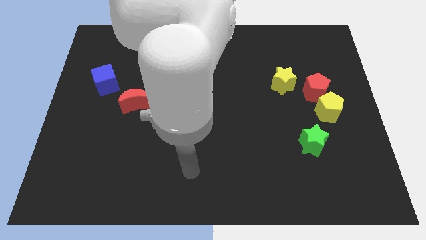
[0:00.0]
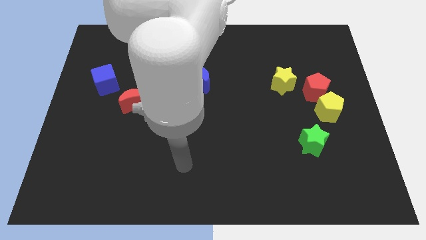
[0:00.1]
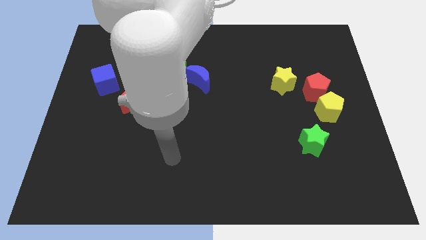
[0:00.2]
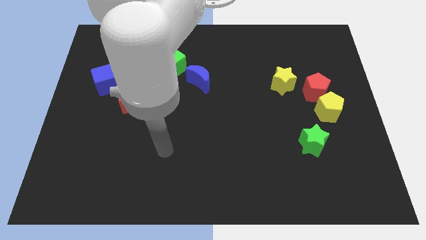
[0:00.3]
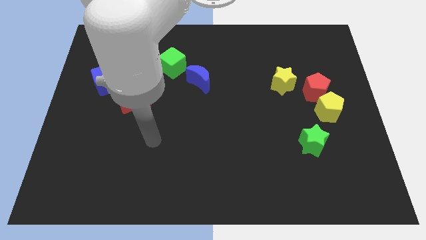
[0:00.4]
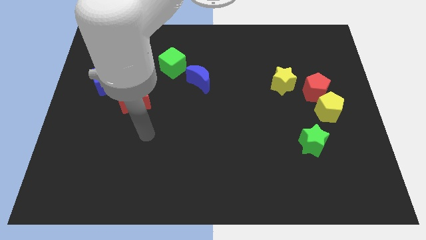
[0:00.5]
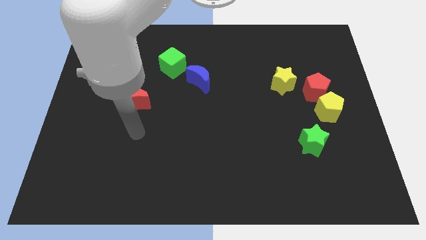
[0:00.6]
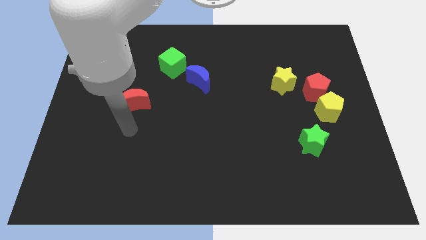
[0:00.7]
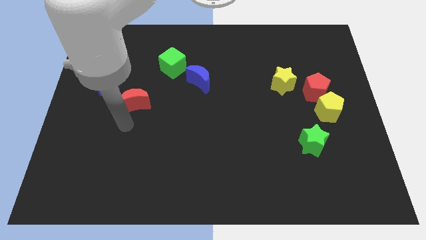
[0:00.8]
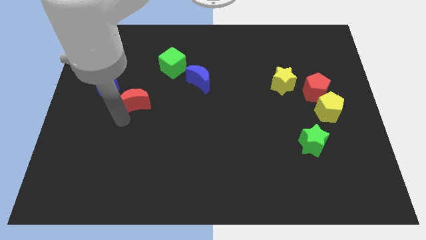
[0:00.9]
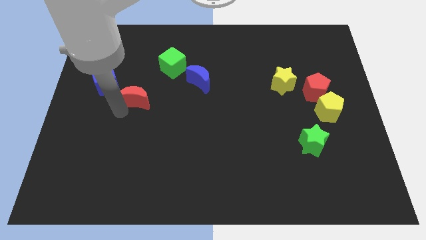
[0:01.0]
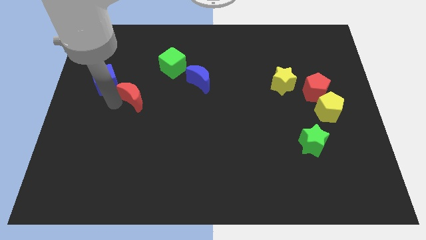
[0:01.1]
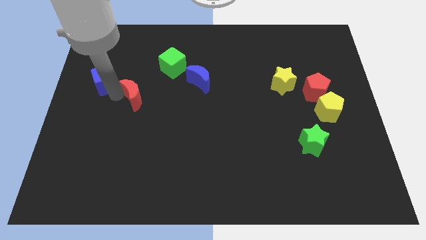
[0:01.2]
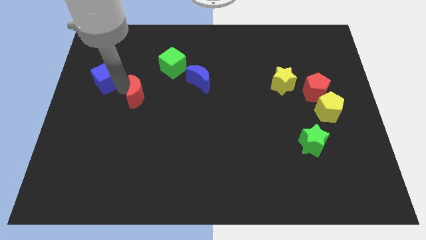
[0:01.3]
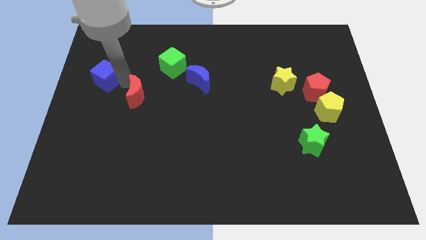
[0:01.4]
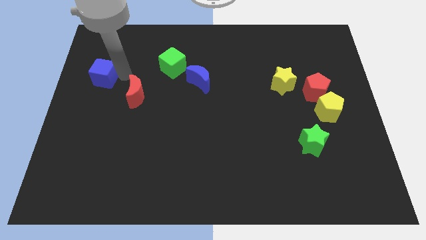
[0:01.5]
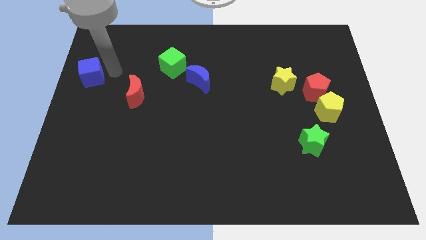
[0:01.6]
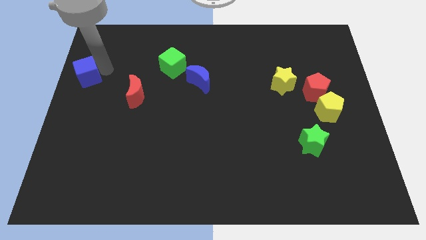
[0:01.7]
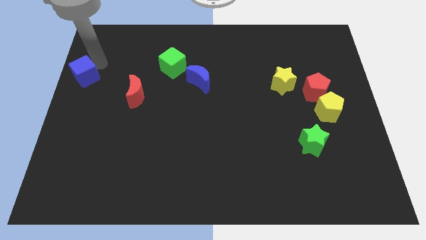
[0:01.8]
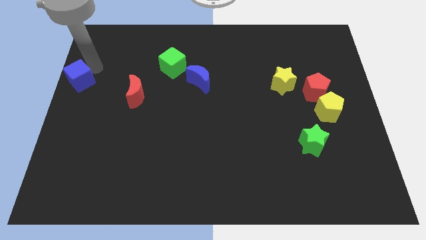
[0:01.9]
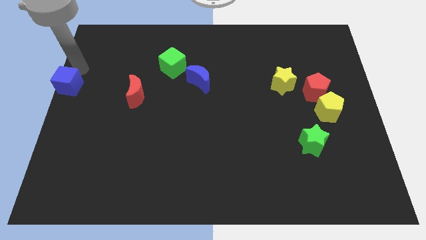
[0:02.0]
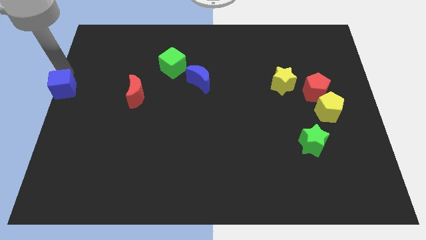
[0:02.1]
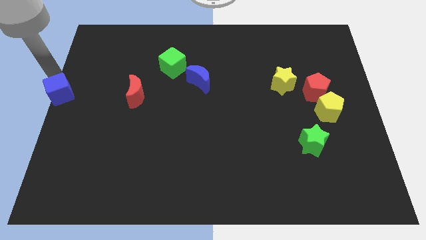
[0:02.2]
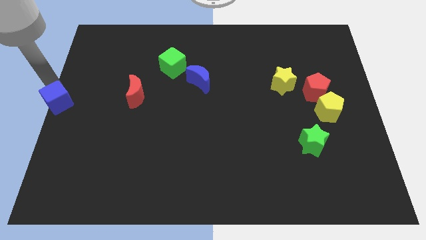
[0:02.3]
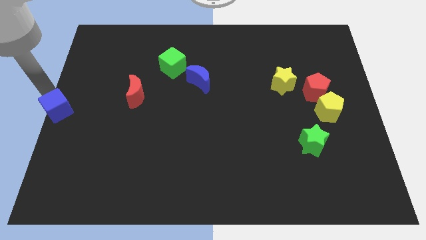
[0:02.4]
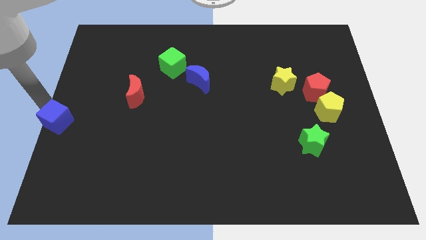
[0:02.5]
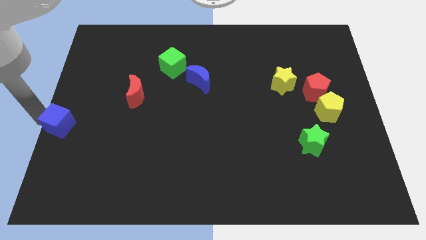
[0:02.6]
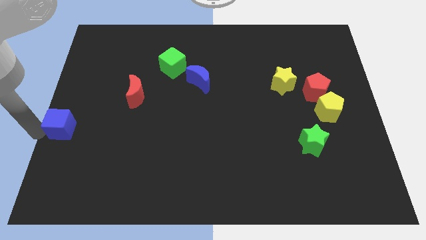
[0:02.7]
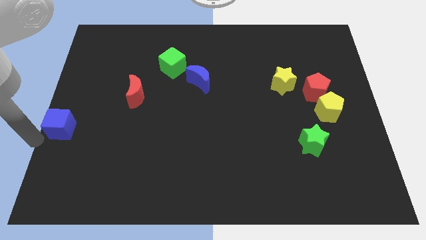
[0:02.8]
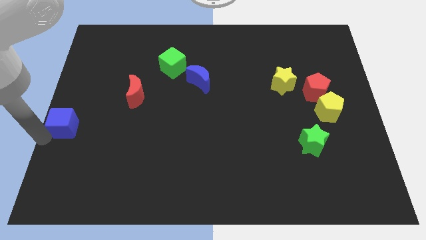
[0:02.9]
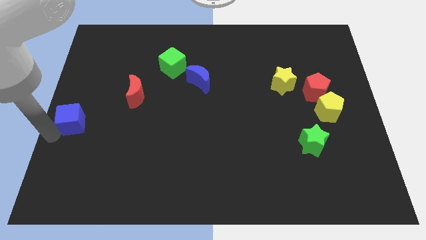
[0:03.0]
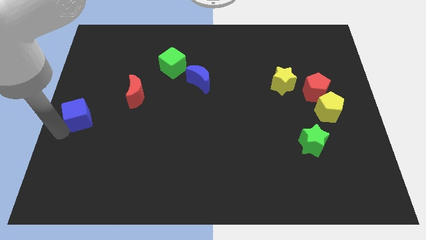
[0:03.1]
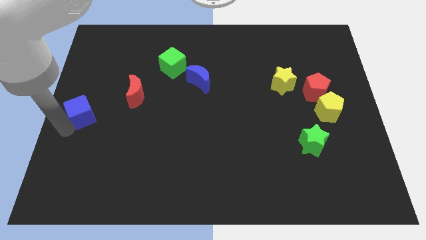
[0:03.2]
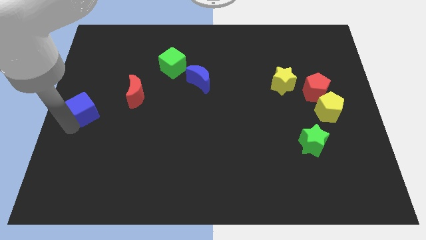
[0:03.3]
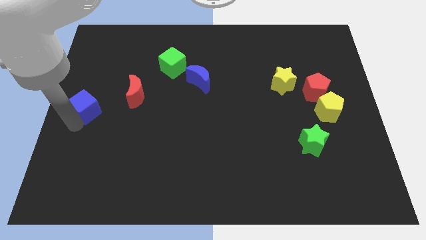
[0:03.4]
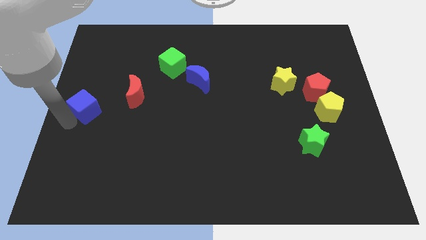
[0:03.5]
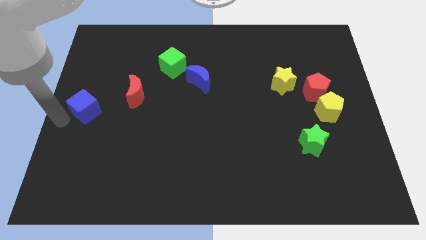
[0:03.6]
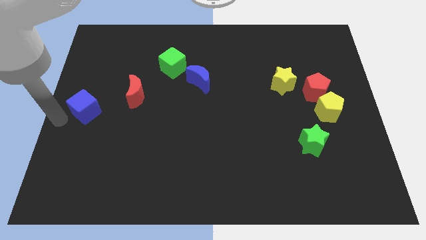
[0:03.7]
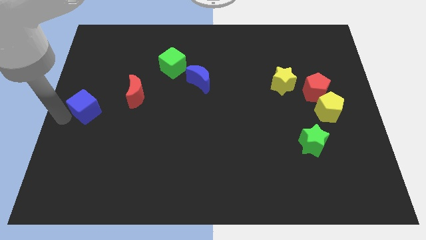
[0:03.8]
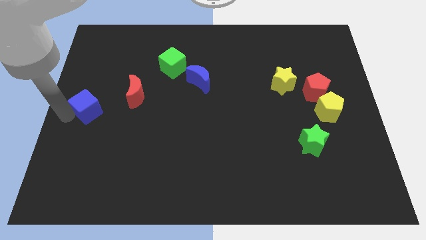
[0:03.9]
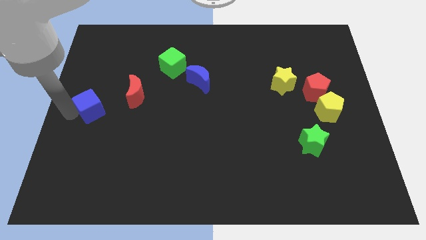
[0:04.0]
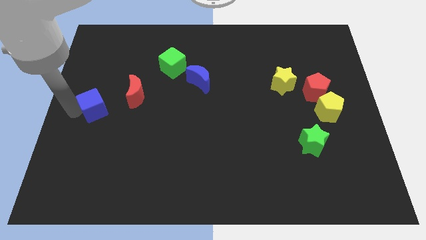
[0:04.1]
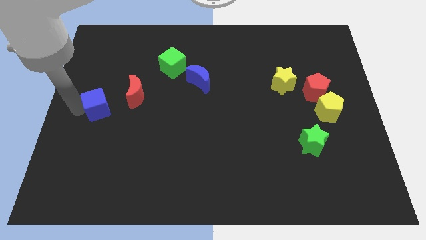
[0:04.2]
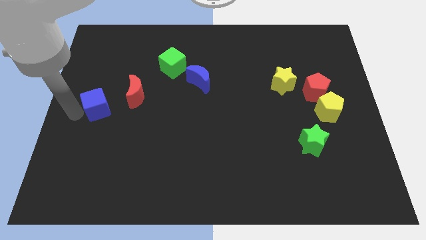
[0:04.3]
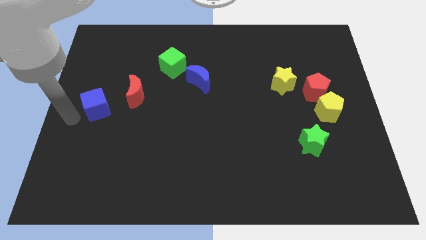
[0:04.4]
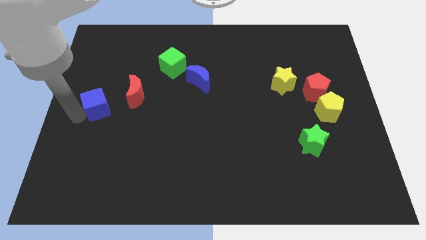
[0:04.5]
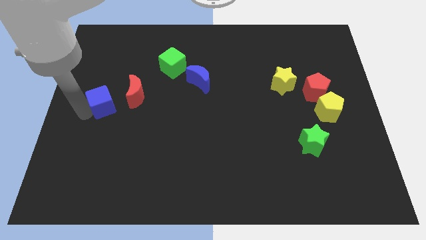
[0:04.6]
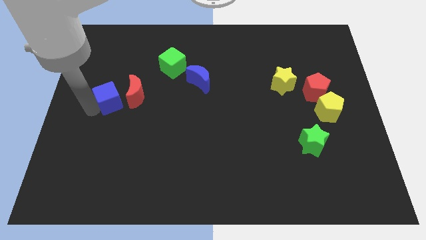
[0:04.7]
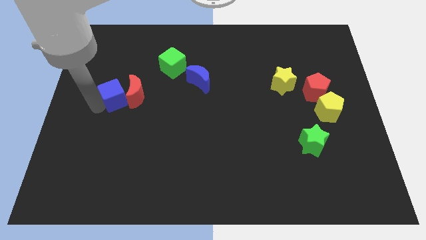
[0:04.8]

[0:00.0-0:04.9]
move the blue cube close to the red moon

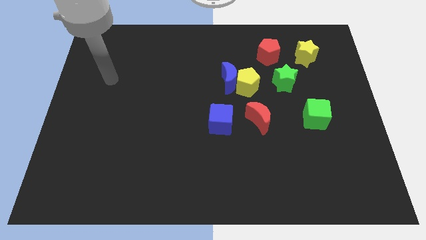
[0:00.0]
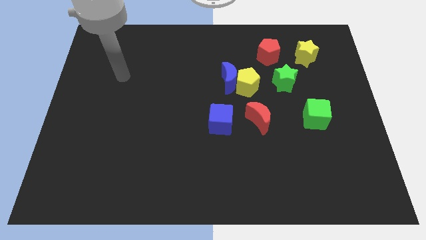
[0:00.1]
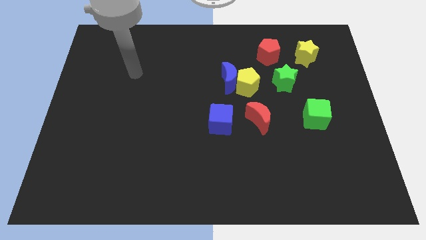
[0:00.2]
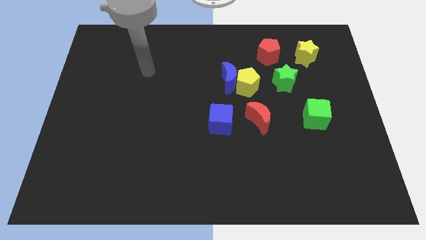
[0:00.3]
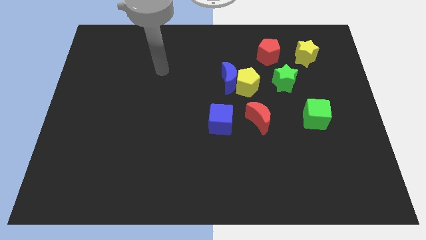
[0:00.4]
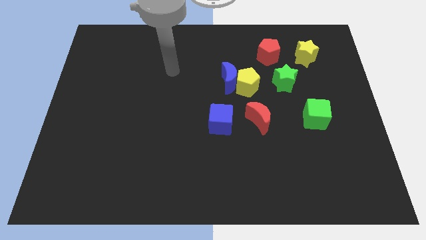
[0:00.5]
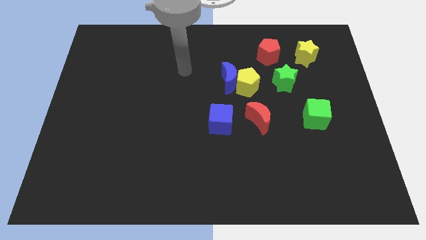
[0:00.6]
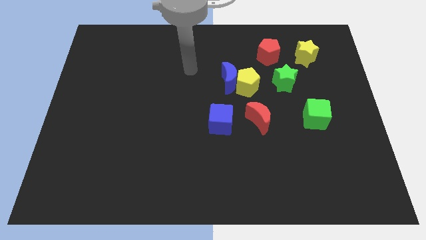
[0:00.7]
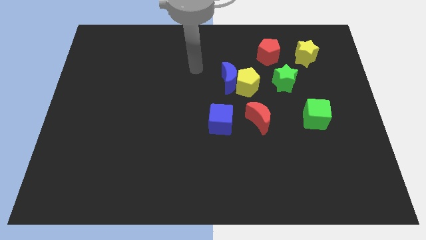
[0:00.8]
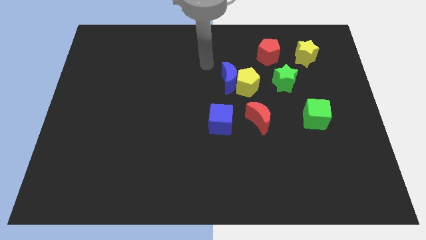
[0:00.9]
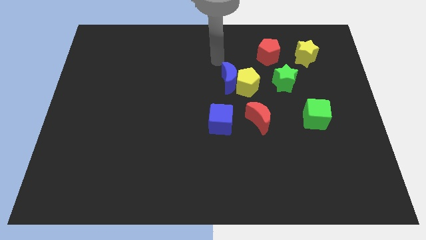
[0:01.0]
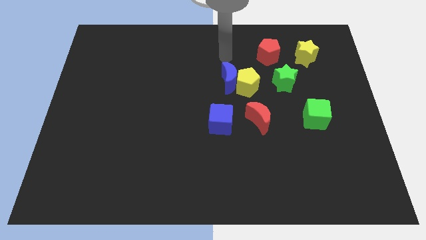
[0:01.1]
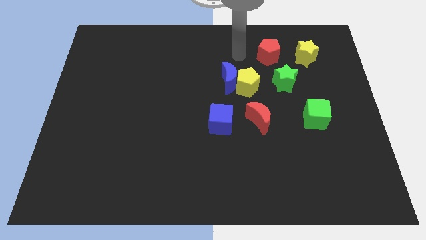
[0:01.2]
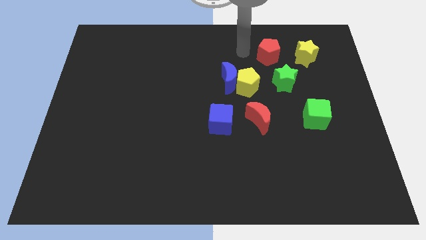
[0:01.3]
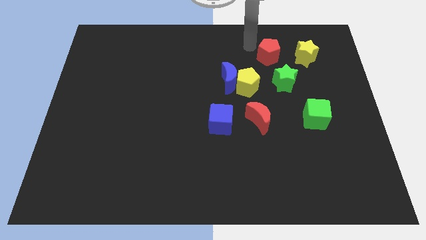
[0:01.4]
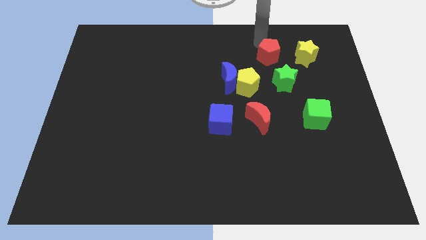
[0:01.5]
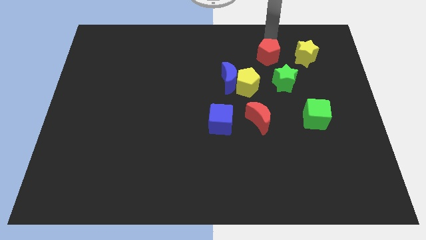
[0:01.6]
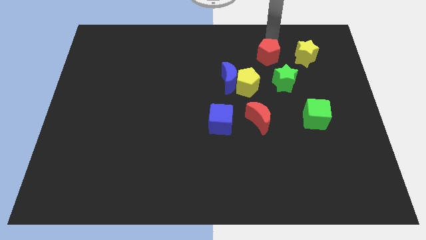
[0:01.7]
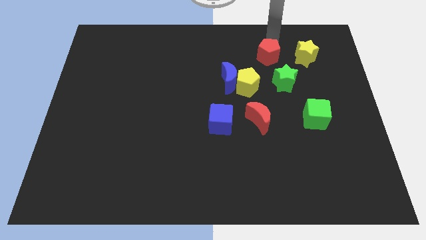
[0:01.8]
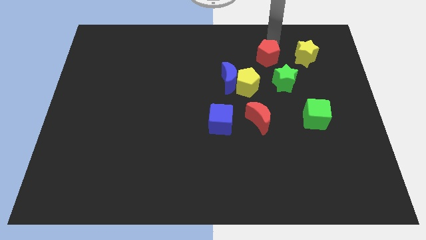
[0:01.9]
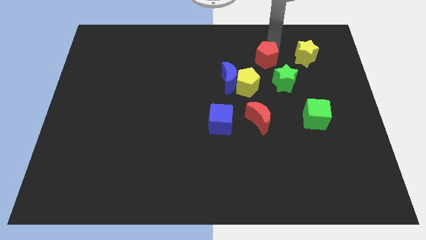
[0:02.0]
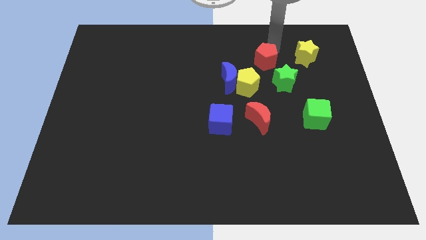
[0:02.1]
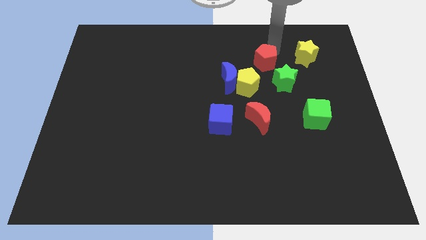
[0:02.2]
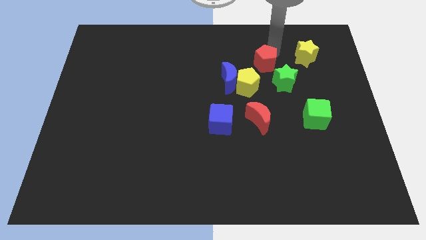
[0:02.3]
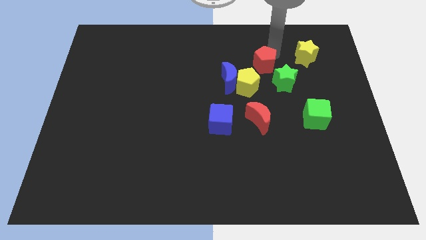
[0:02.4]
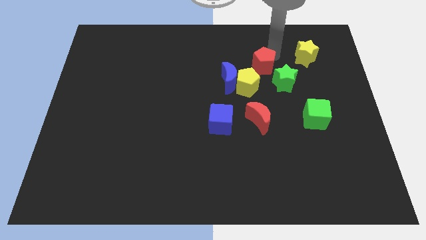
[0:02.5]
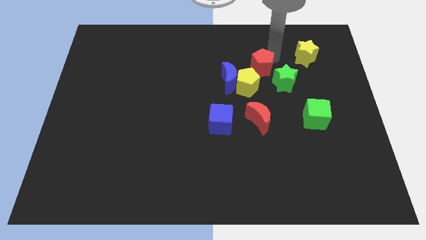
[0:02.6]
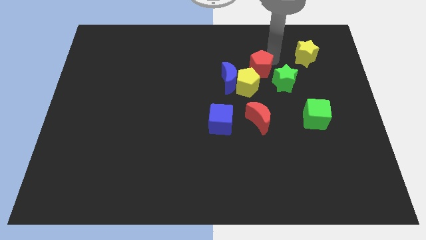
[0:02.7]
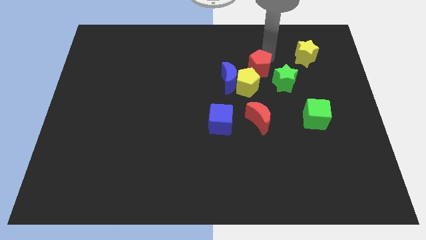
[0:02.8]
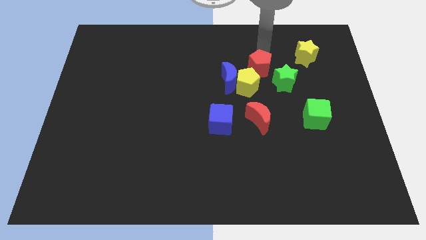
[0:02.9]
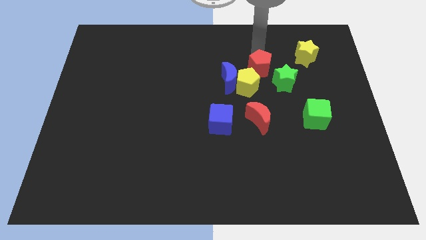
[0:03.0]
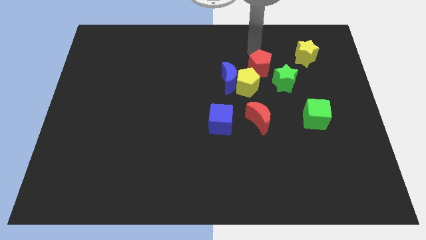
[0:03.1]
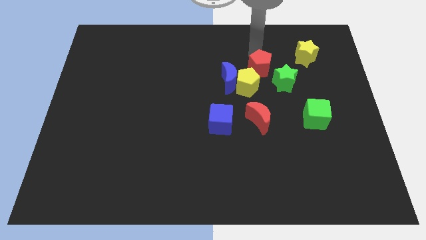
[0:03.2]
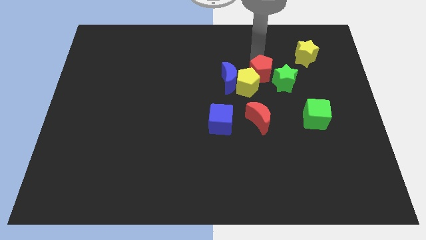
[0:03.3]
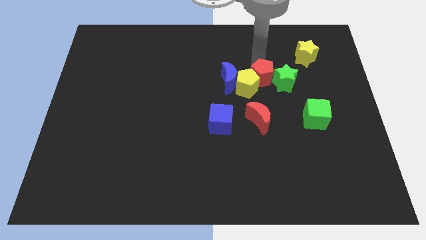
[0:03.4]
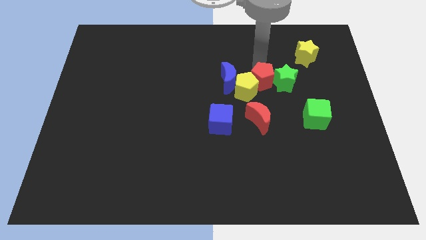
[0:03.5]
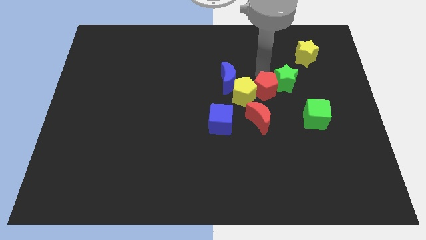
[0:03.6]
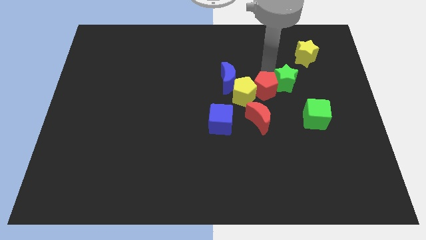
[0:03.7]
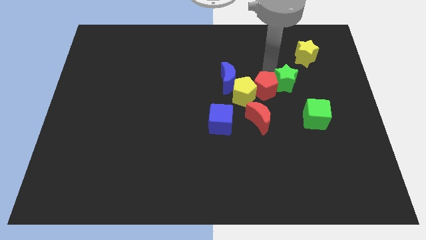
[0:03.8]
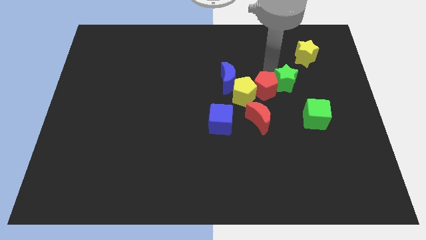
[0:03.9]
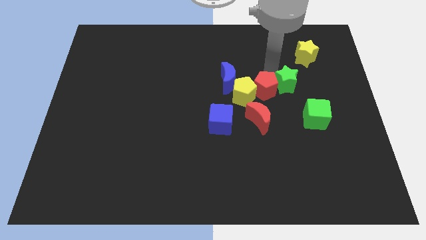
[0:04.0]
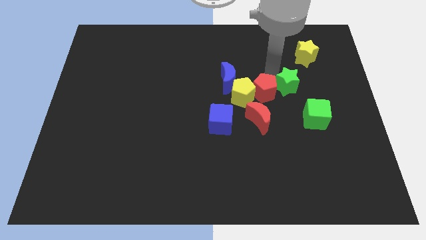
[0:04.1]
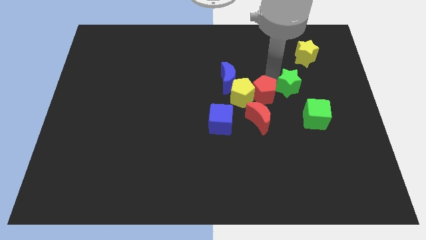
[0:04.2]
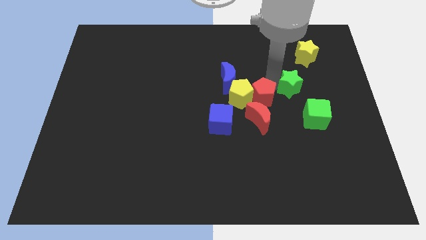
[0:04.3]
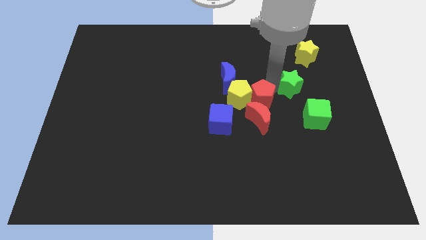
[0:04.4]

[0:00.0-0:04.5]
slide the red pentagon close to the red moon
